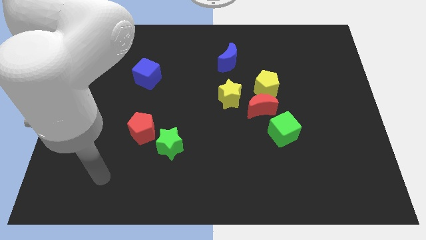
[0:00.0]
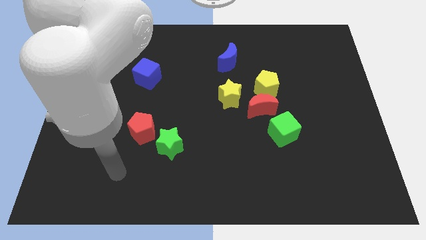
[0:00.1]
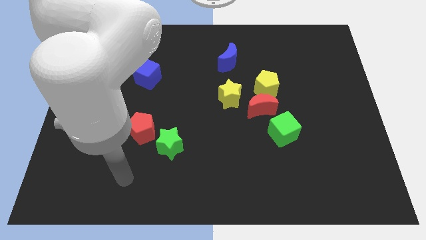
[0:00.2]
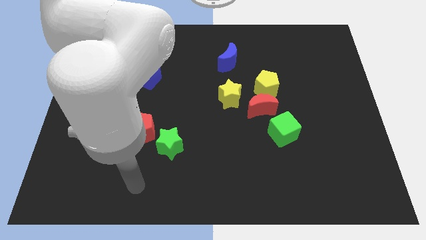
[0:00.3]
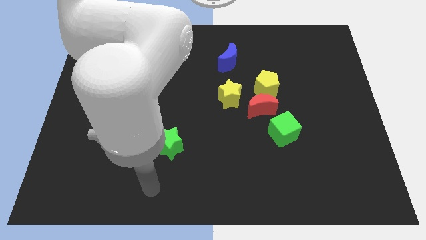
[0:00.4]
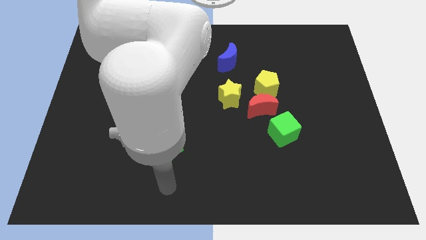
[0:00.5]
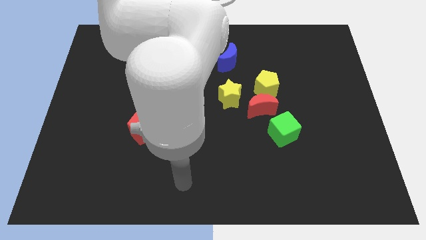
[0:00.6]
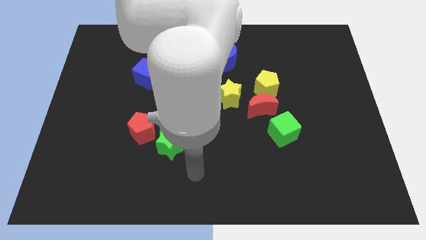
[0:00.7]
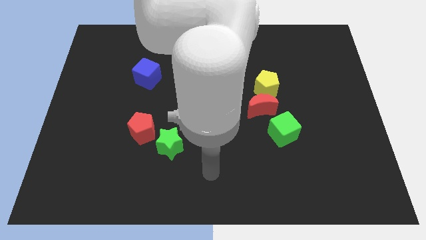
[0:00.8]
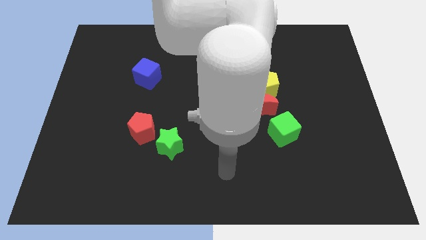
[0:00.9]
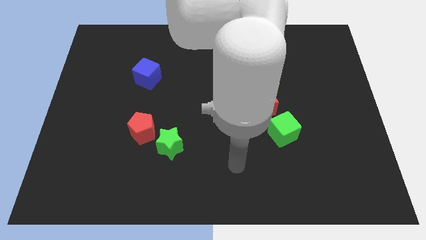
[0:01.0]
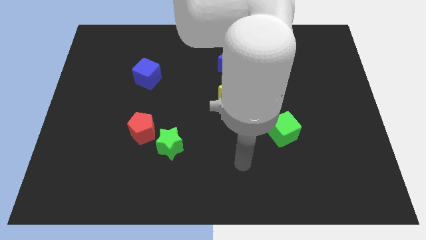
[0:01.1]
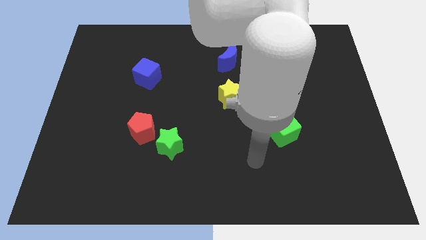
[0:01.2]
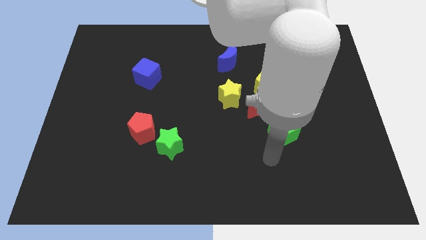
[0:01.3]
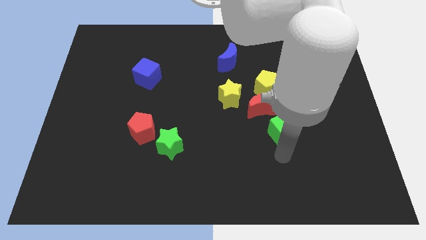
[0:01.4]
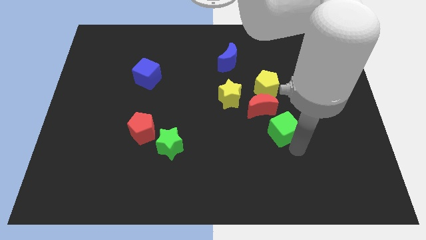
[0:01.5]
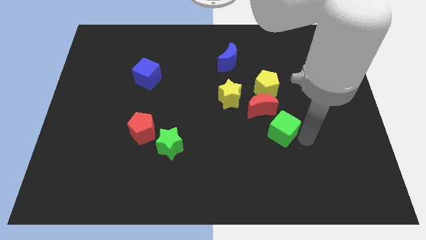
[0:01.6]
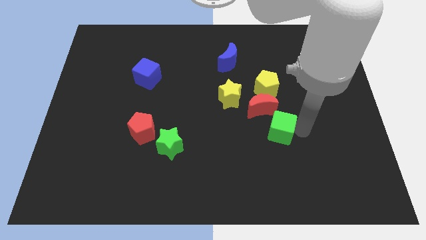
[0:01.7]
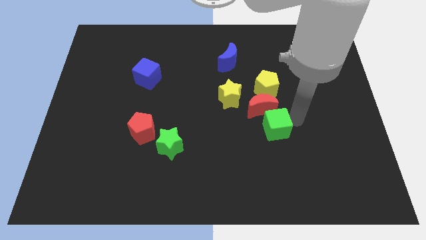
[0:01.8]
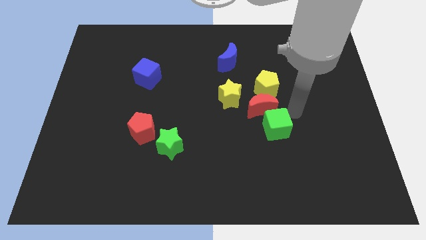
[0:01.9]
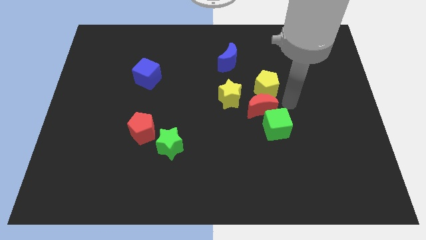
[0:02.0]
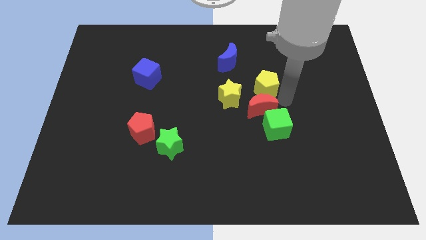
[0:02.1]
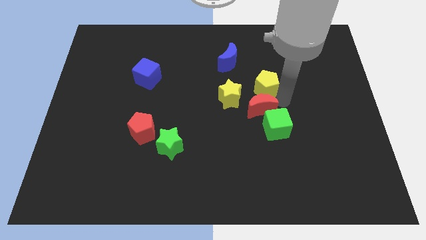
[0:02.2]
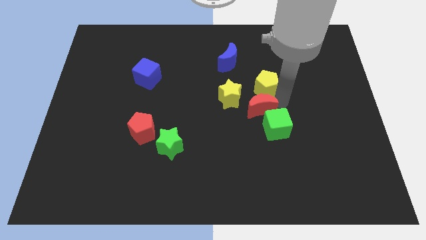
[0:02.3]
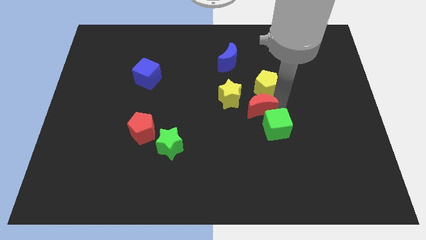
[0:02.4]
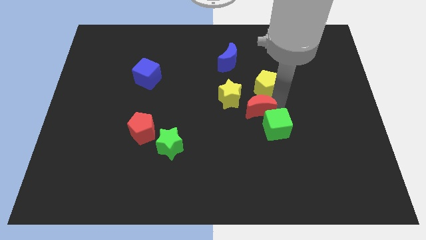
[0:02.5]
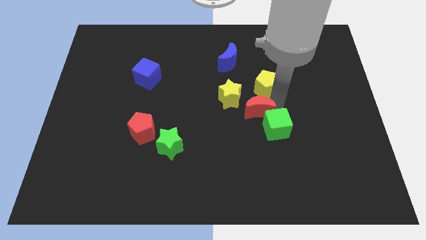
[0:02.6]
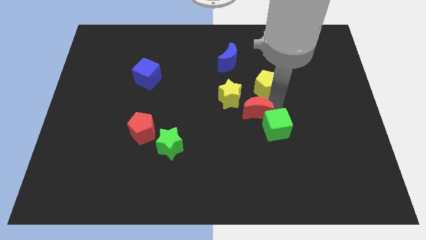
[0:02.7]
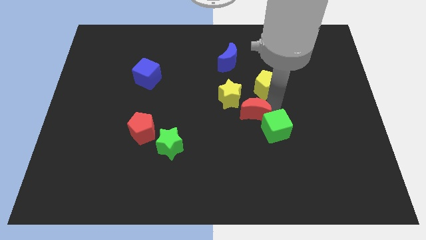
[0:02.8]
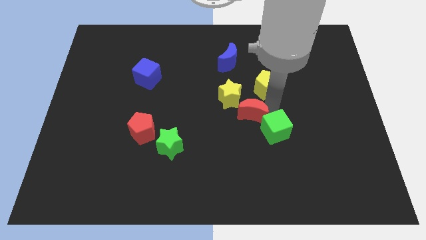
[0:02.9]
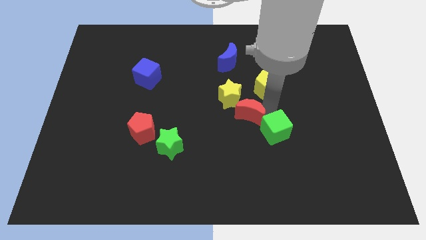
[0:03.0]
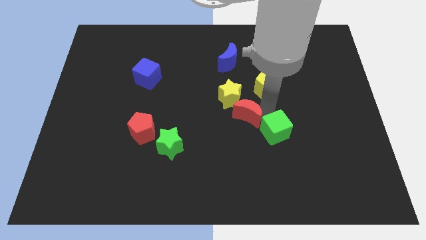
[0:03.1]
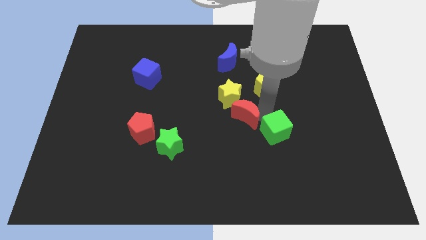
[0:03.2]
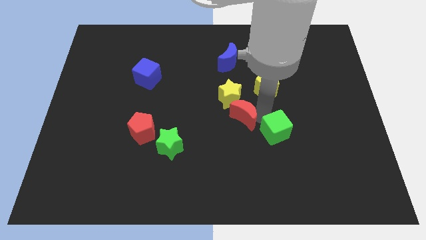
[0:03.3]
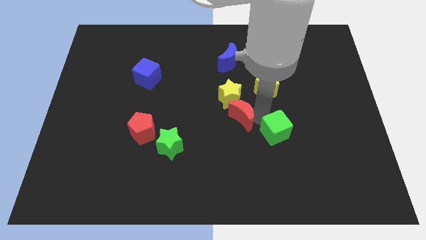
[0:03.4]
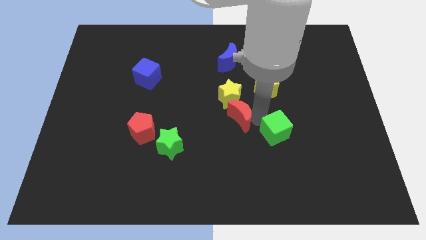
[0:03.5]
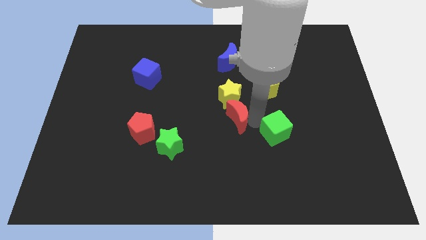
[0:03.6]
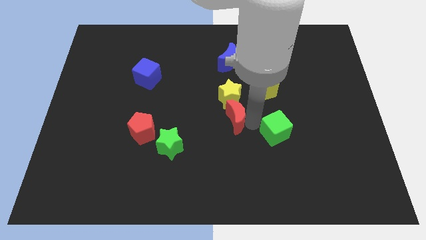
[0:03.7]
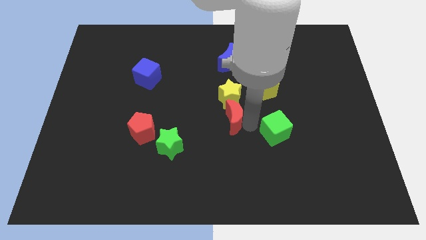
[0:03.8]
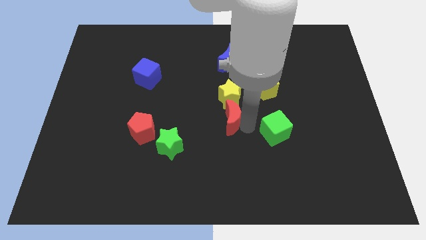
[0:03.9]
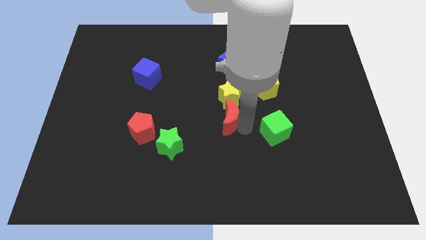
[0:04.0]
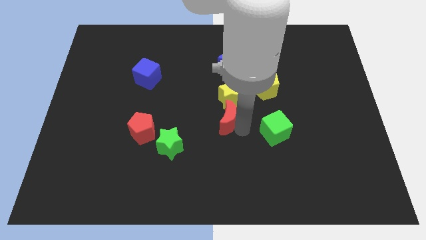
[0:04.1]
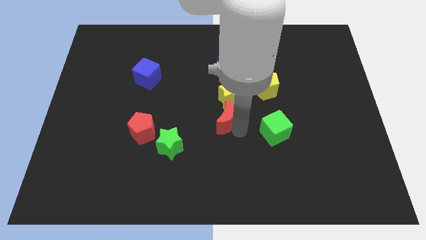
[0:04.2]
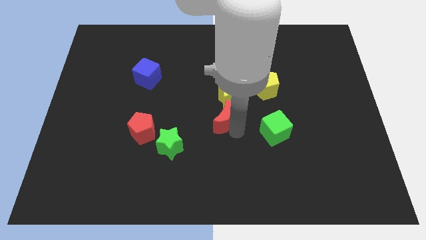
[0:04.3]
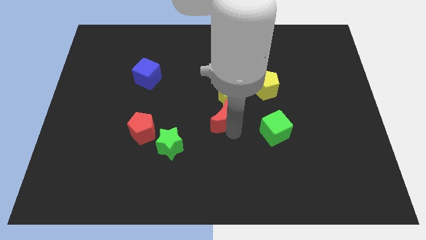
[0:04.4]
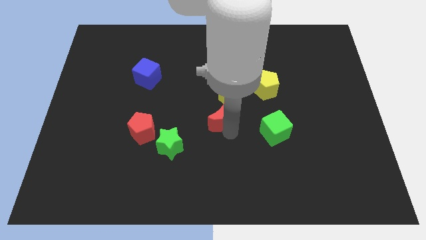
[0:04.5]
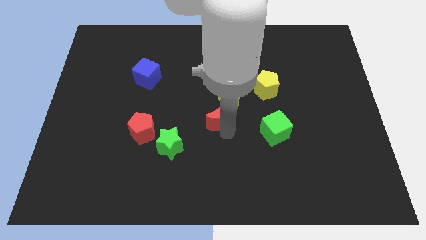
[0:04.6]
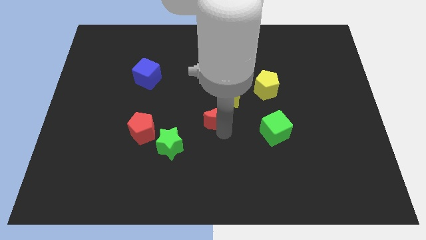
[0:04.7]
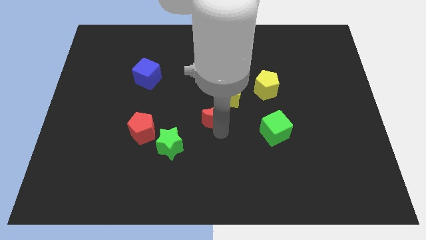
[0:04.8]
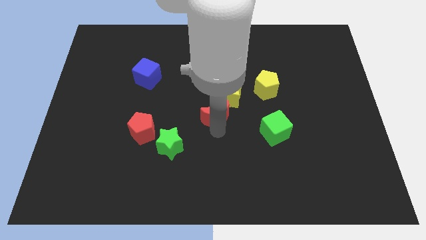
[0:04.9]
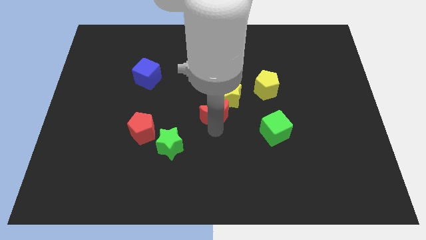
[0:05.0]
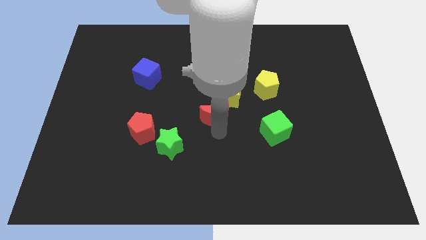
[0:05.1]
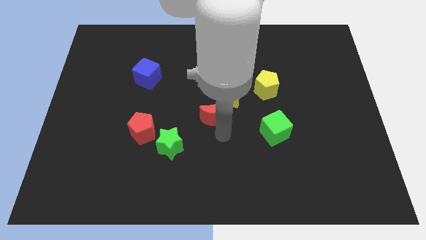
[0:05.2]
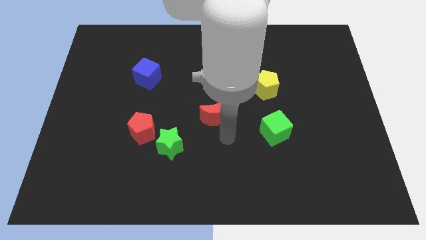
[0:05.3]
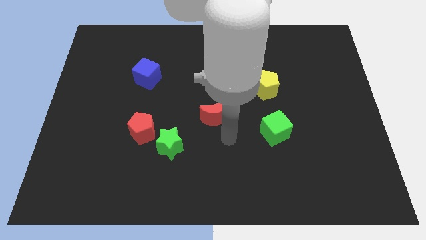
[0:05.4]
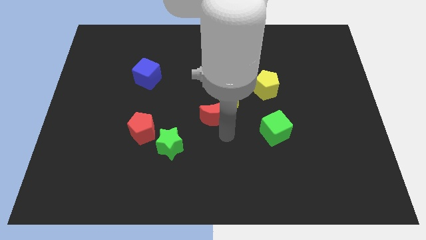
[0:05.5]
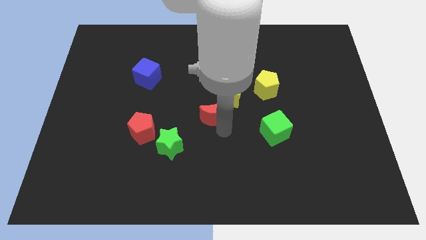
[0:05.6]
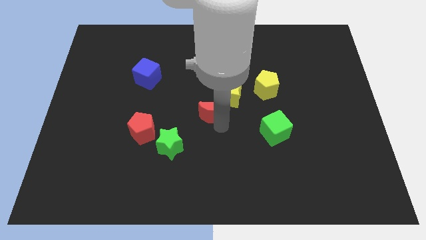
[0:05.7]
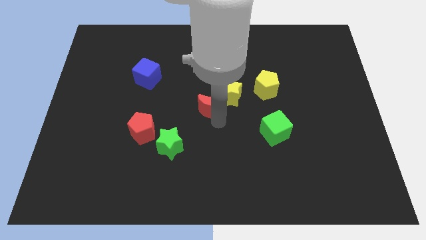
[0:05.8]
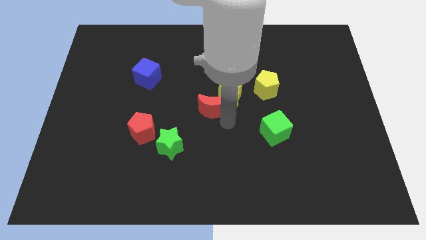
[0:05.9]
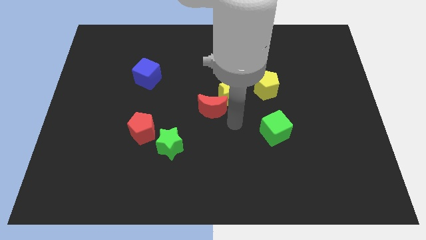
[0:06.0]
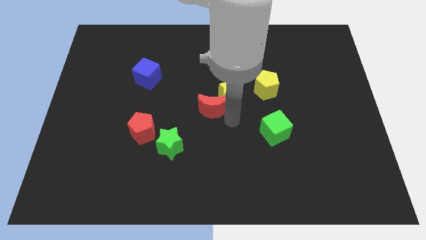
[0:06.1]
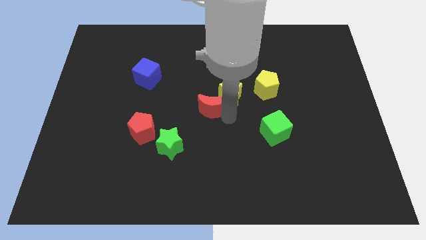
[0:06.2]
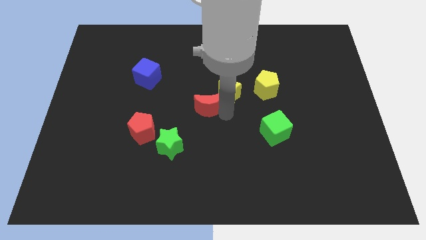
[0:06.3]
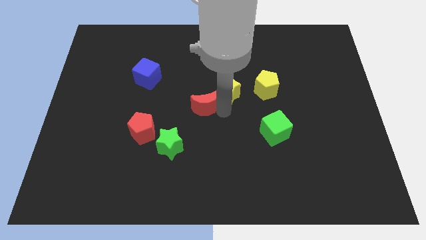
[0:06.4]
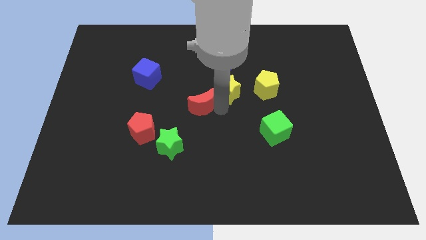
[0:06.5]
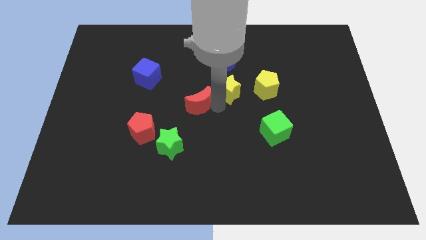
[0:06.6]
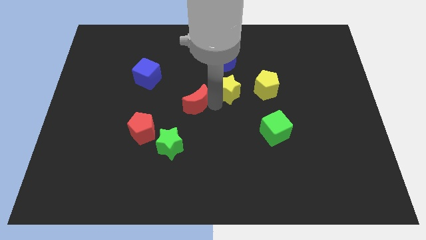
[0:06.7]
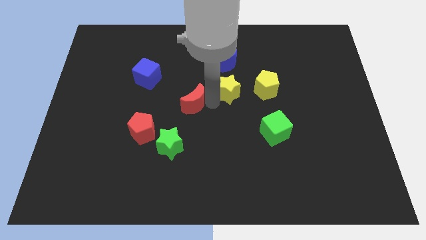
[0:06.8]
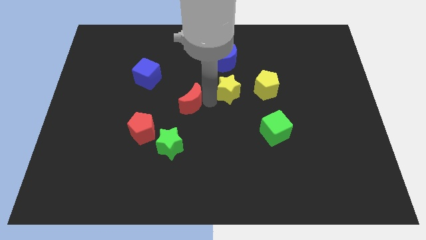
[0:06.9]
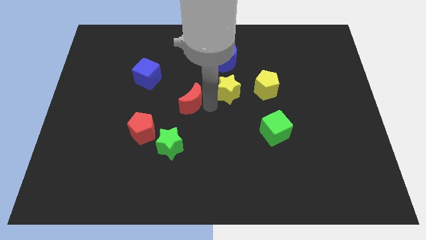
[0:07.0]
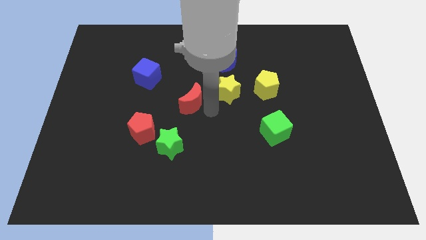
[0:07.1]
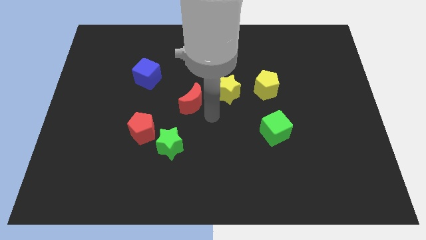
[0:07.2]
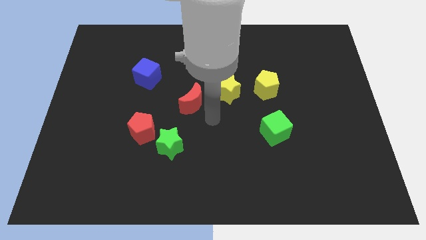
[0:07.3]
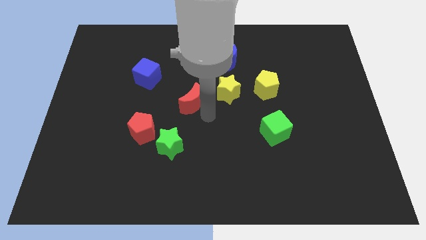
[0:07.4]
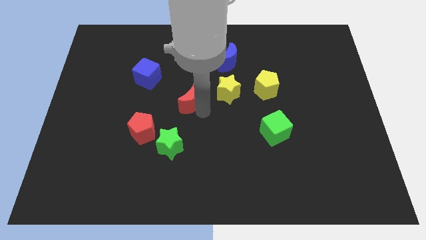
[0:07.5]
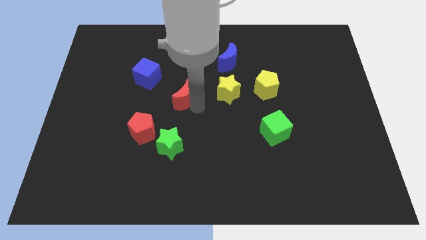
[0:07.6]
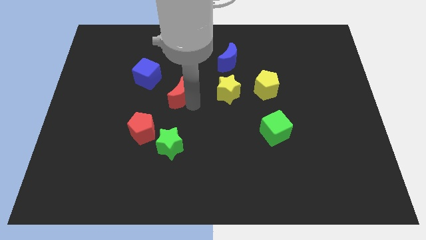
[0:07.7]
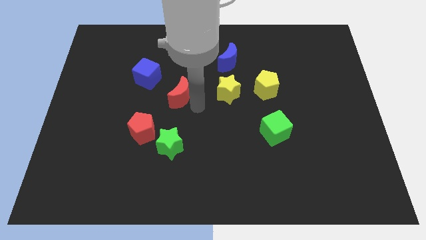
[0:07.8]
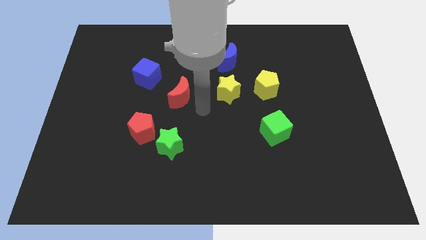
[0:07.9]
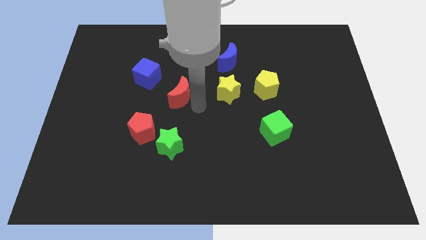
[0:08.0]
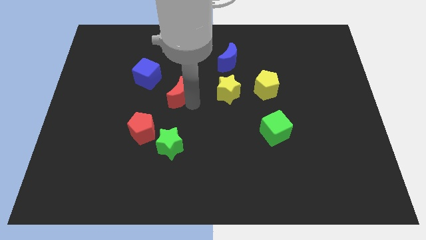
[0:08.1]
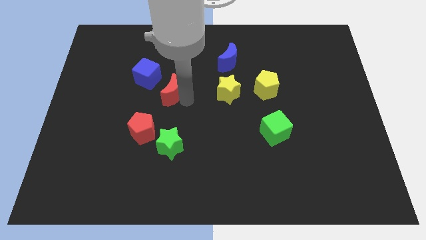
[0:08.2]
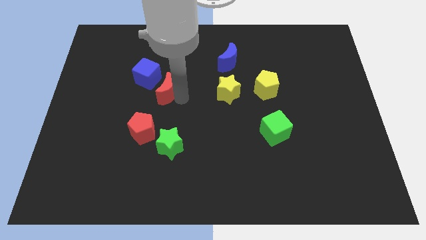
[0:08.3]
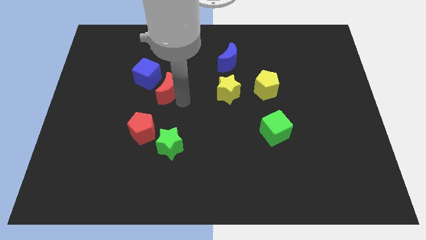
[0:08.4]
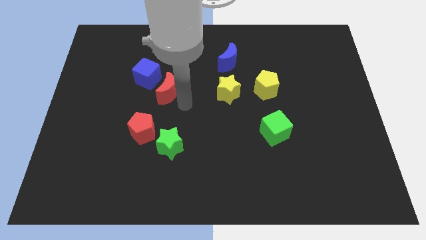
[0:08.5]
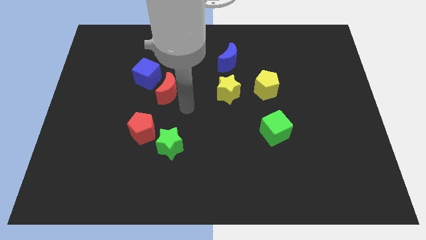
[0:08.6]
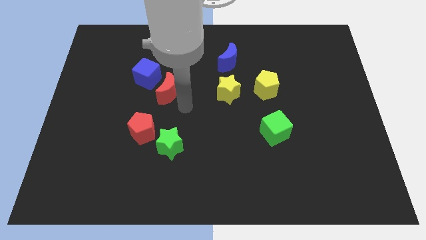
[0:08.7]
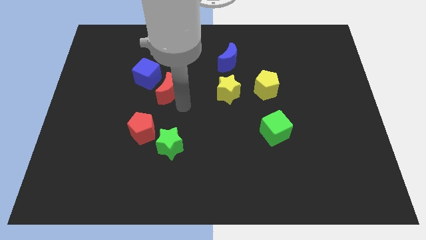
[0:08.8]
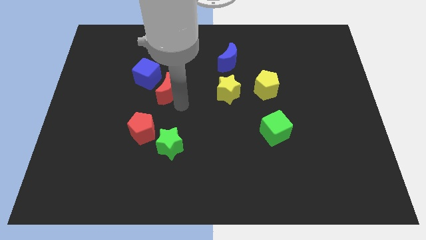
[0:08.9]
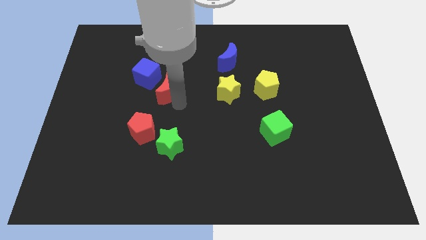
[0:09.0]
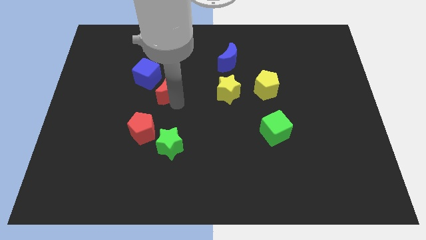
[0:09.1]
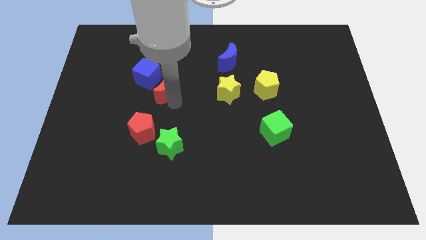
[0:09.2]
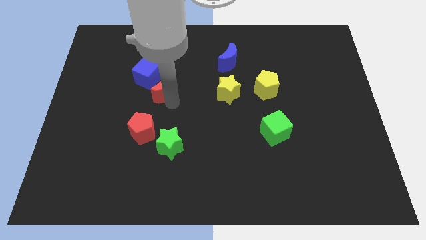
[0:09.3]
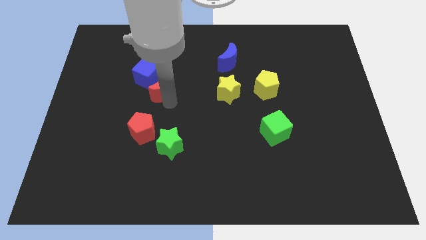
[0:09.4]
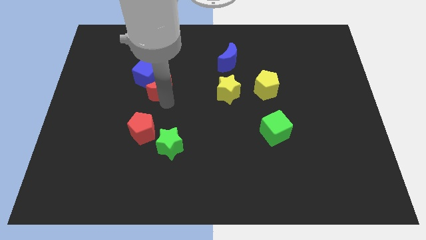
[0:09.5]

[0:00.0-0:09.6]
put the red moon next to the blue cube
